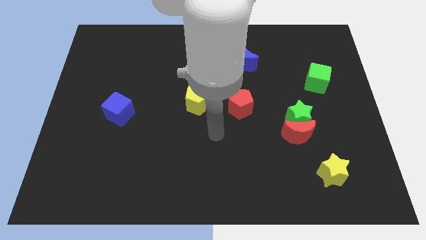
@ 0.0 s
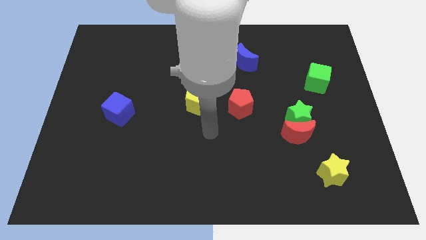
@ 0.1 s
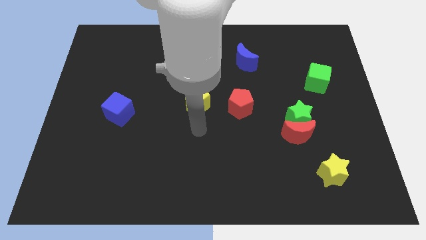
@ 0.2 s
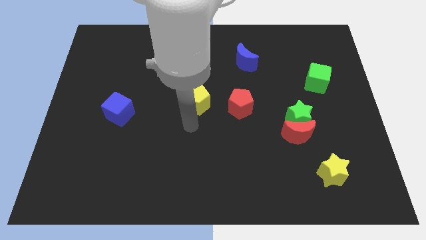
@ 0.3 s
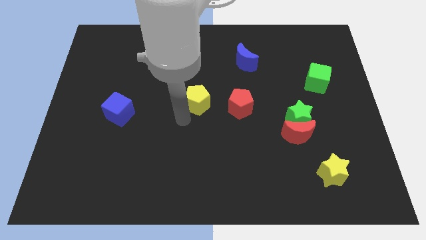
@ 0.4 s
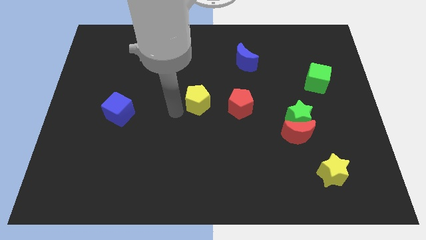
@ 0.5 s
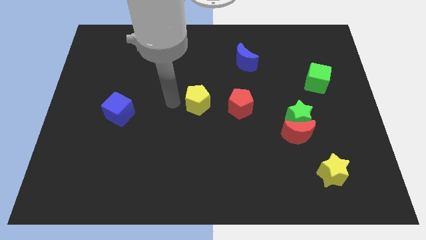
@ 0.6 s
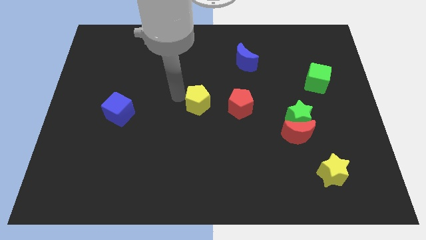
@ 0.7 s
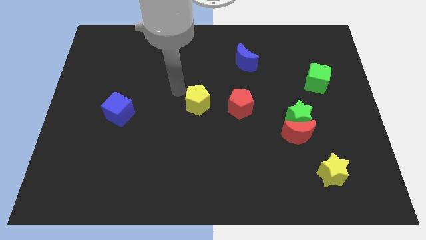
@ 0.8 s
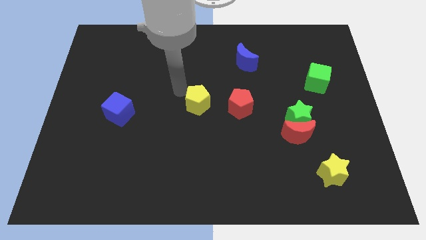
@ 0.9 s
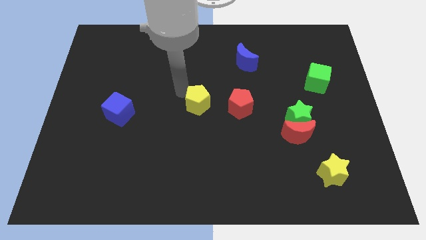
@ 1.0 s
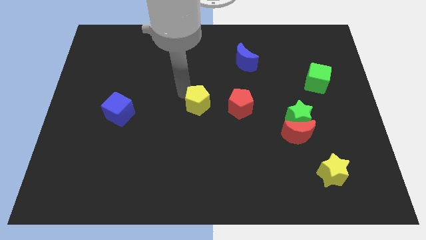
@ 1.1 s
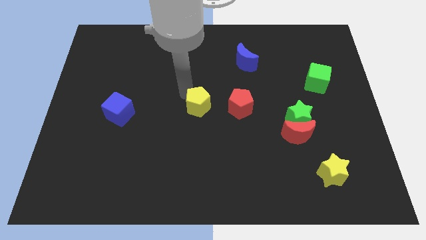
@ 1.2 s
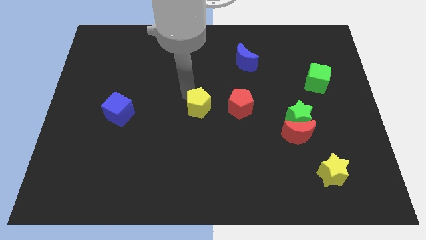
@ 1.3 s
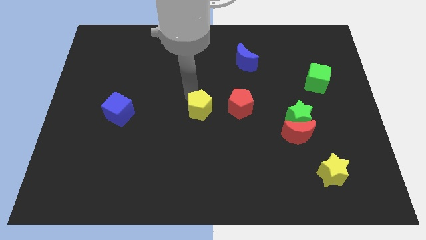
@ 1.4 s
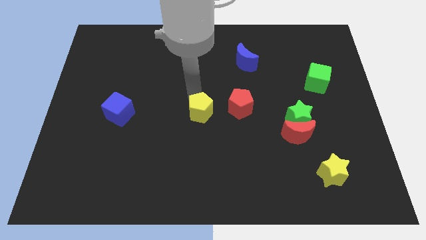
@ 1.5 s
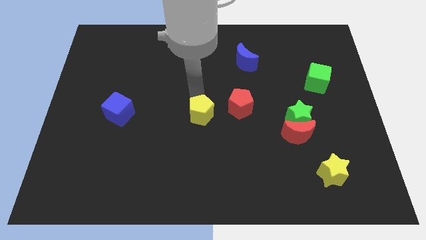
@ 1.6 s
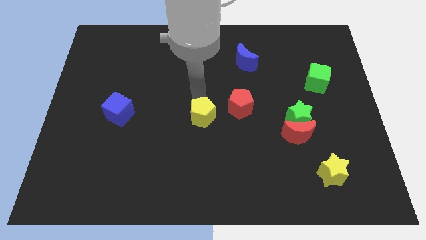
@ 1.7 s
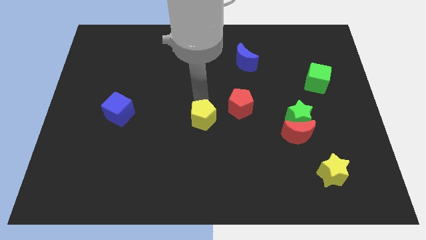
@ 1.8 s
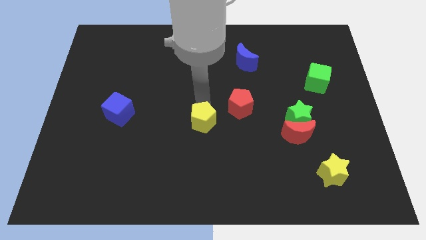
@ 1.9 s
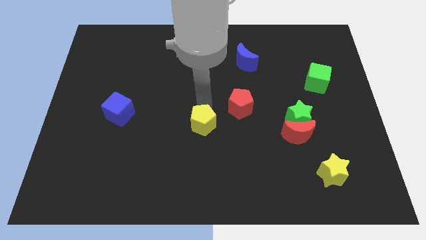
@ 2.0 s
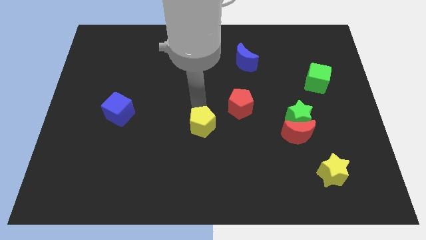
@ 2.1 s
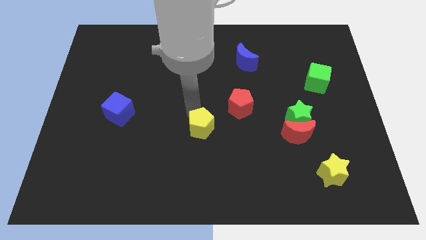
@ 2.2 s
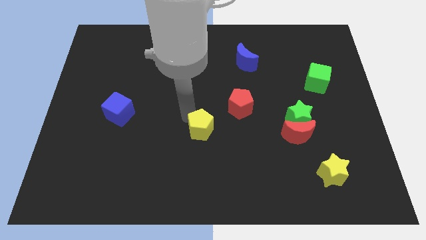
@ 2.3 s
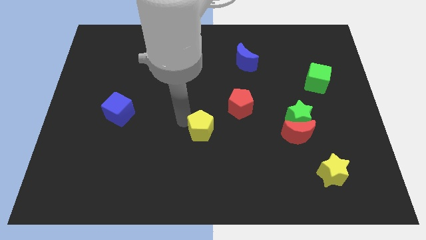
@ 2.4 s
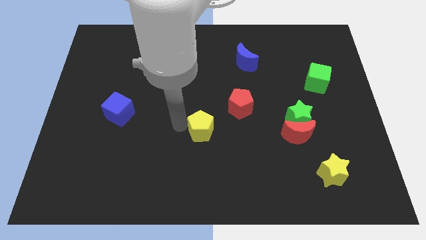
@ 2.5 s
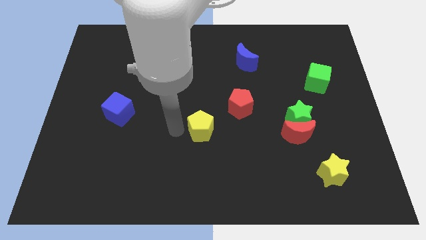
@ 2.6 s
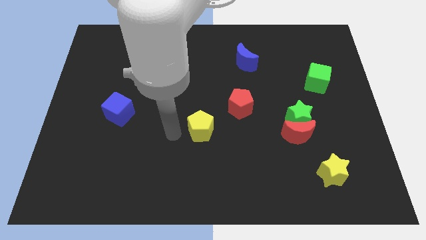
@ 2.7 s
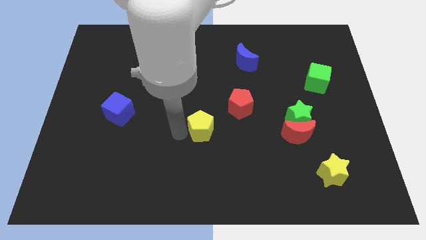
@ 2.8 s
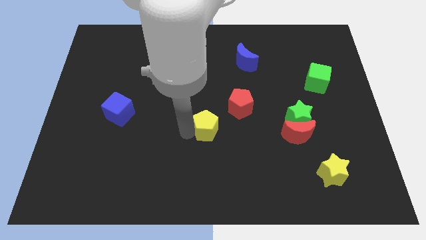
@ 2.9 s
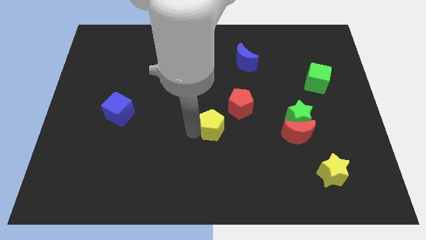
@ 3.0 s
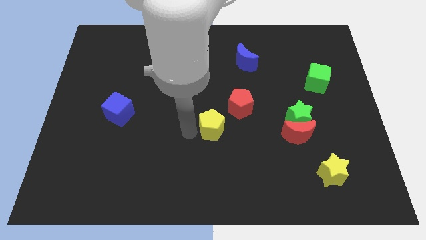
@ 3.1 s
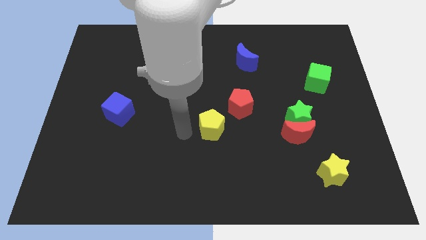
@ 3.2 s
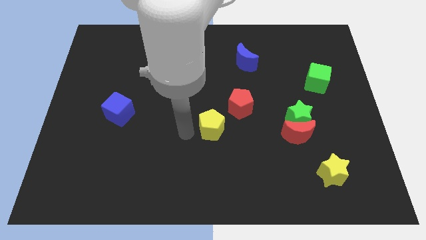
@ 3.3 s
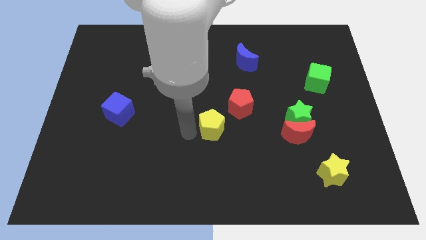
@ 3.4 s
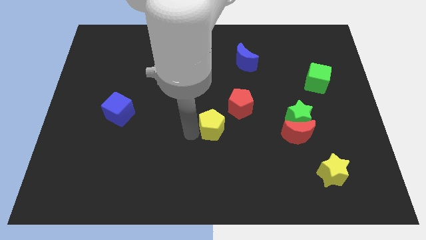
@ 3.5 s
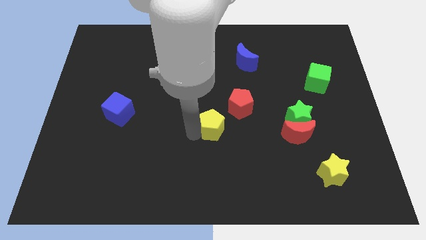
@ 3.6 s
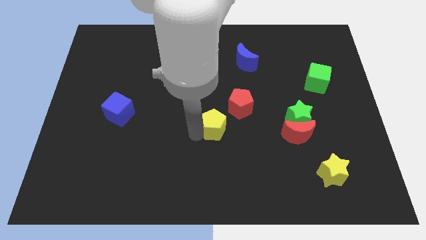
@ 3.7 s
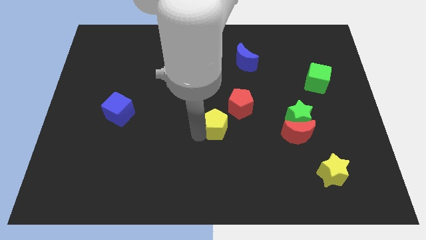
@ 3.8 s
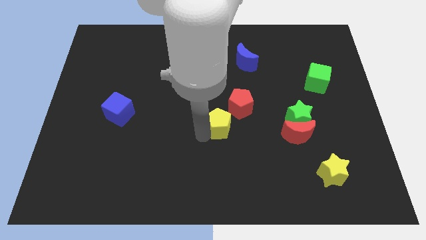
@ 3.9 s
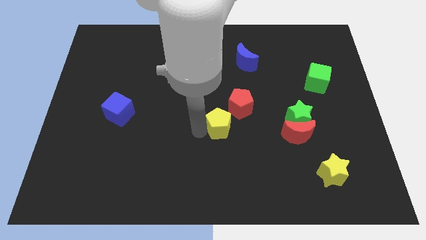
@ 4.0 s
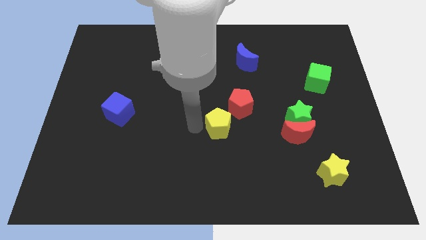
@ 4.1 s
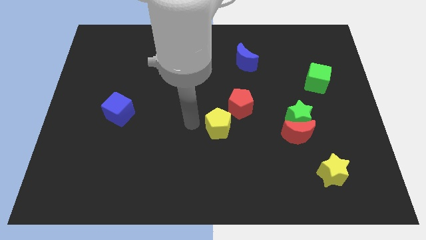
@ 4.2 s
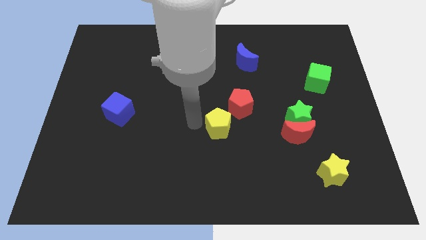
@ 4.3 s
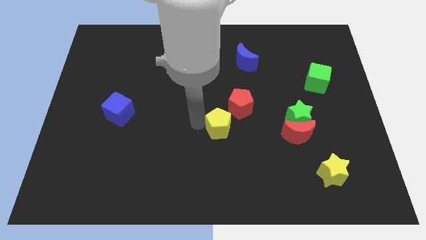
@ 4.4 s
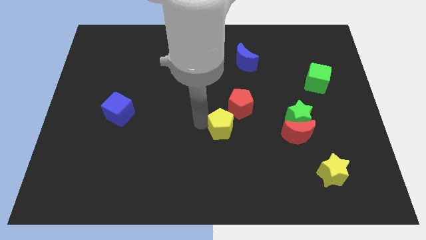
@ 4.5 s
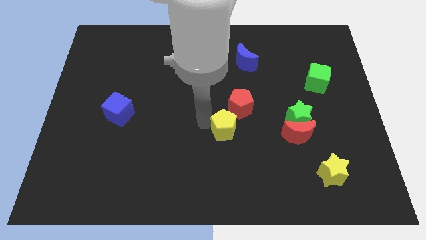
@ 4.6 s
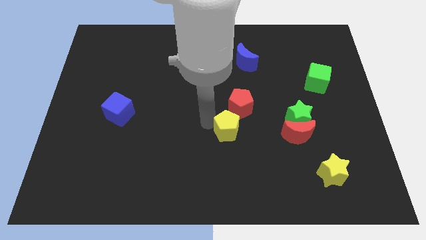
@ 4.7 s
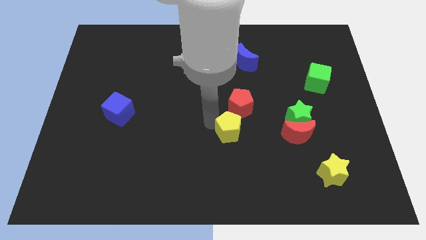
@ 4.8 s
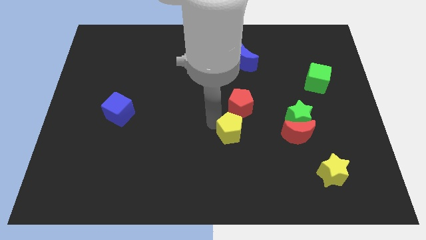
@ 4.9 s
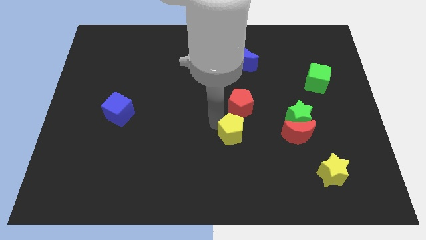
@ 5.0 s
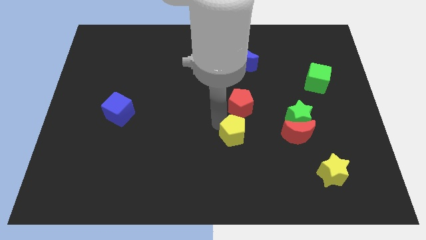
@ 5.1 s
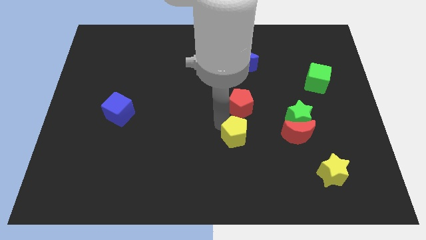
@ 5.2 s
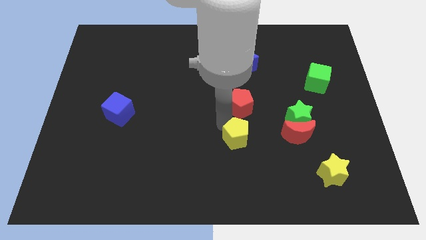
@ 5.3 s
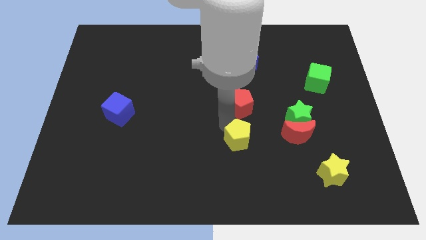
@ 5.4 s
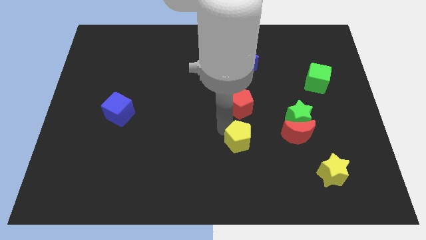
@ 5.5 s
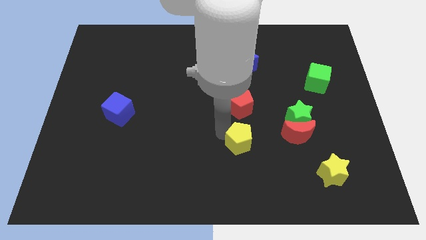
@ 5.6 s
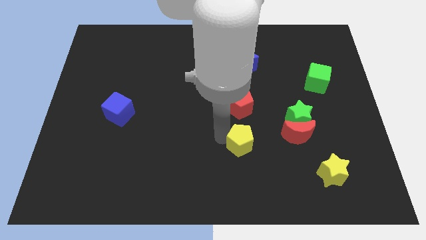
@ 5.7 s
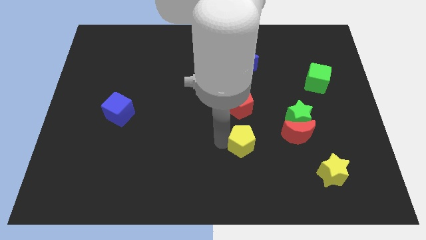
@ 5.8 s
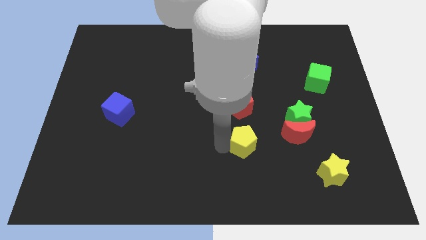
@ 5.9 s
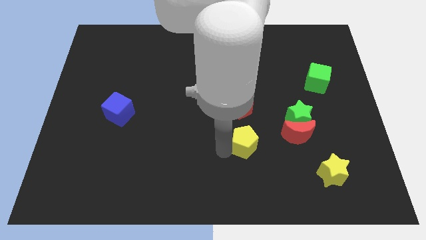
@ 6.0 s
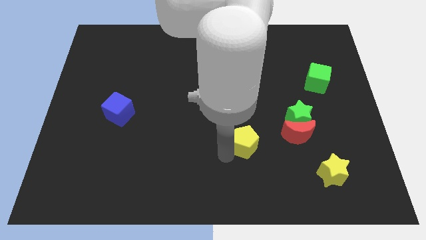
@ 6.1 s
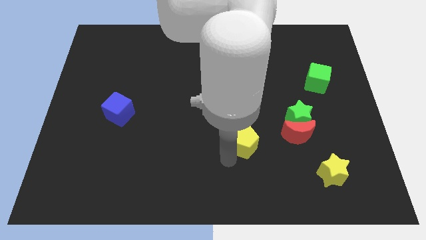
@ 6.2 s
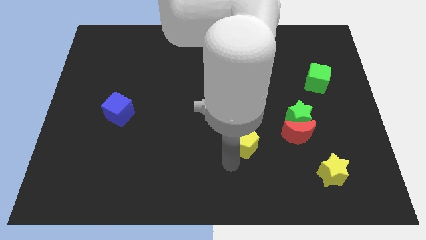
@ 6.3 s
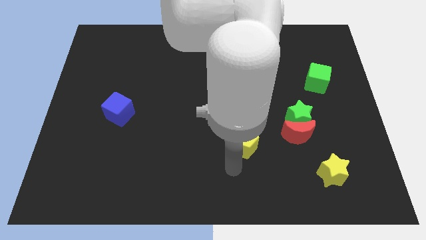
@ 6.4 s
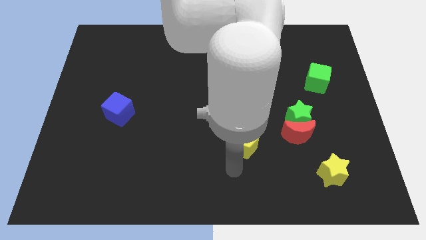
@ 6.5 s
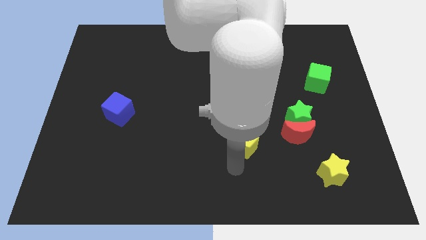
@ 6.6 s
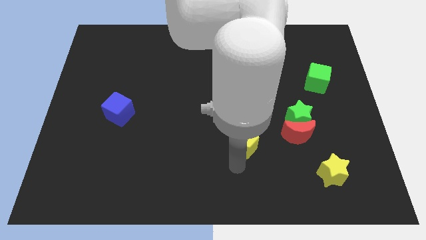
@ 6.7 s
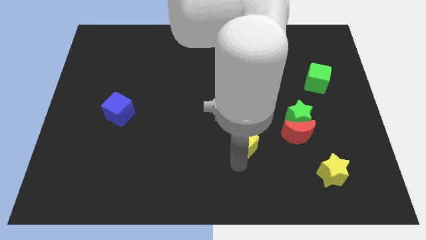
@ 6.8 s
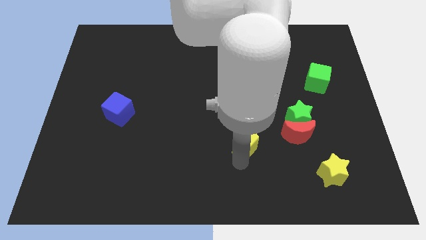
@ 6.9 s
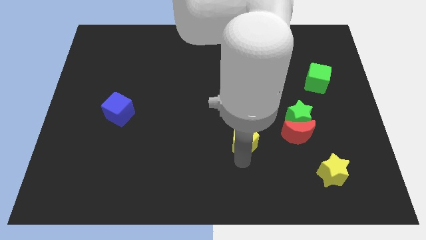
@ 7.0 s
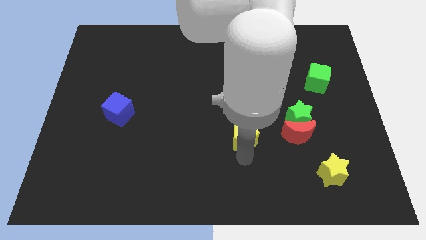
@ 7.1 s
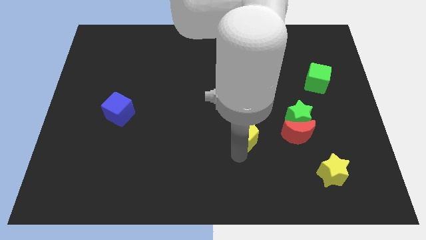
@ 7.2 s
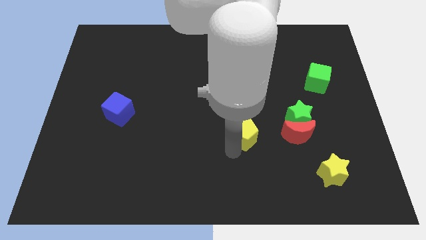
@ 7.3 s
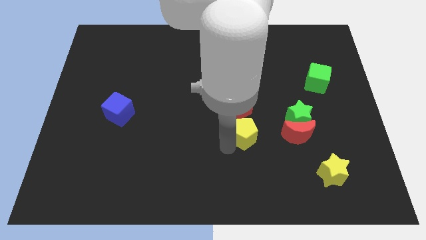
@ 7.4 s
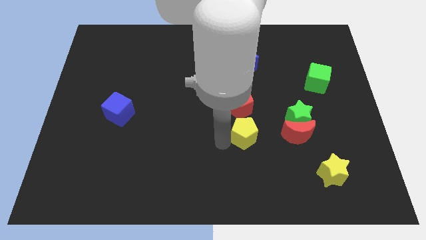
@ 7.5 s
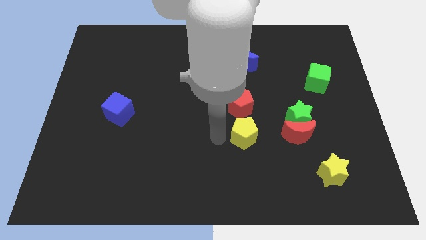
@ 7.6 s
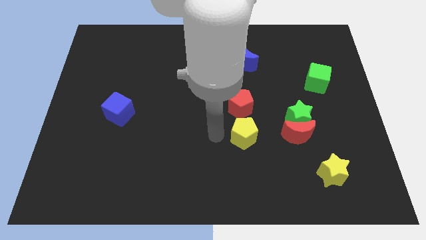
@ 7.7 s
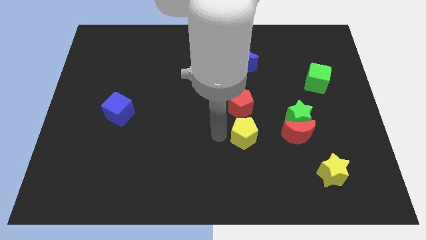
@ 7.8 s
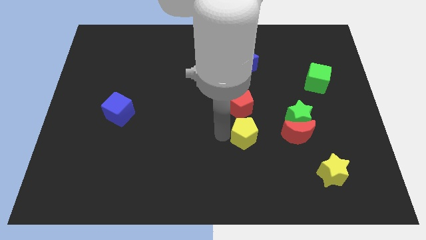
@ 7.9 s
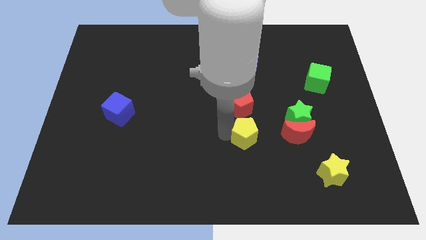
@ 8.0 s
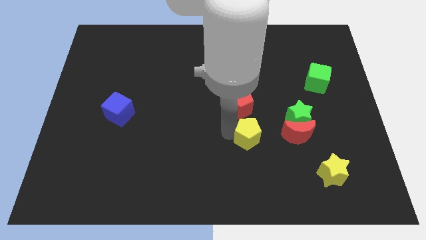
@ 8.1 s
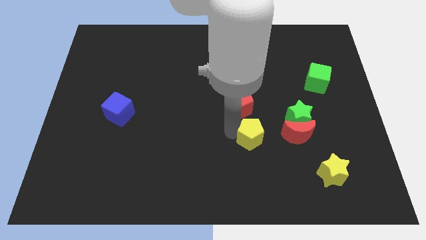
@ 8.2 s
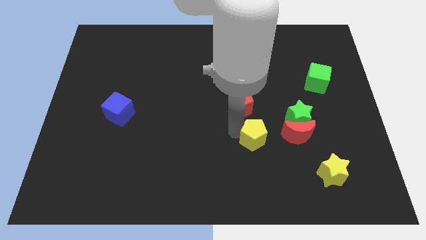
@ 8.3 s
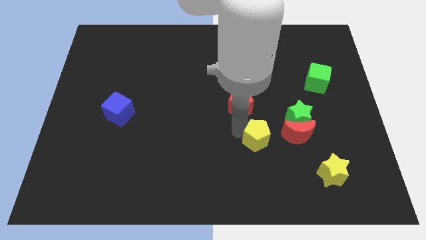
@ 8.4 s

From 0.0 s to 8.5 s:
slide the yellow pentagon to the bottom left side of the green star
